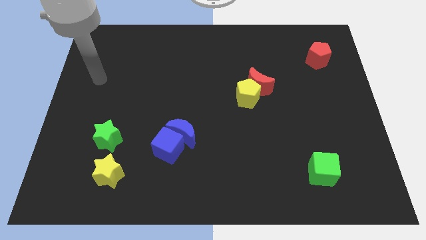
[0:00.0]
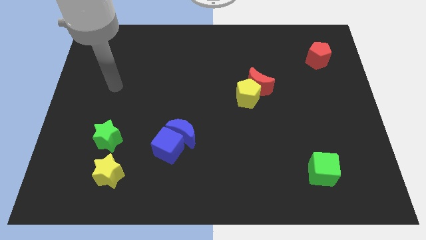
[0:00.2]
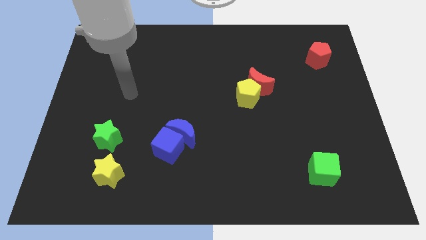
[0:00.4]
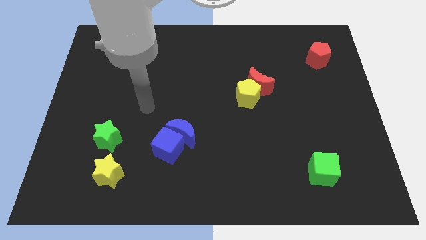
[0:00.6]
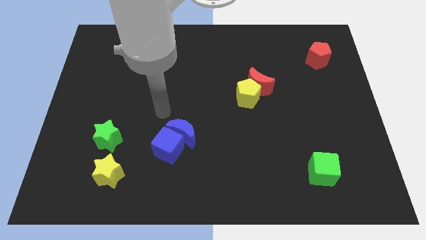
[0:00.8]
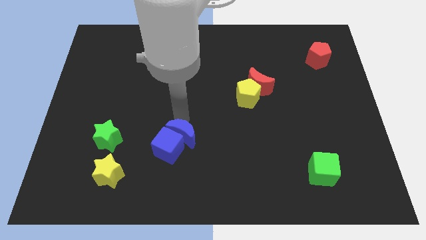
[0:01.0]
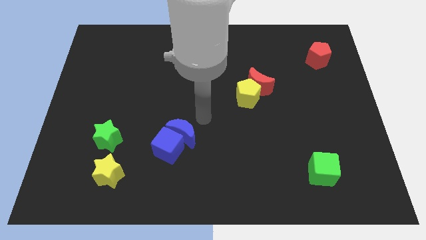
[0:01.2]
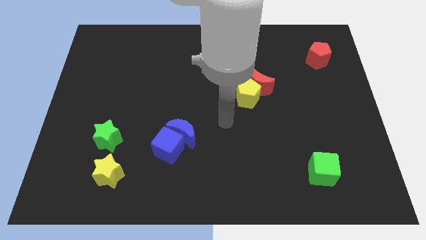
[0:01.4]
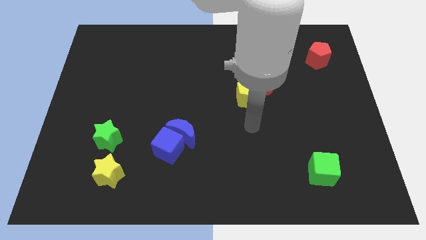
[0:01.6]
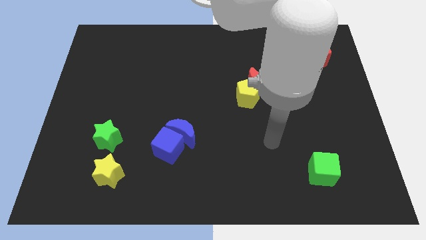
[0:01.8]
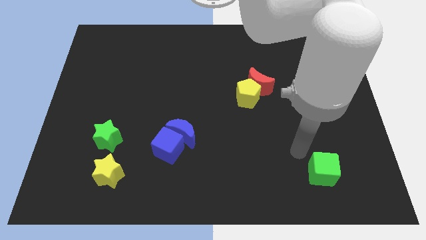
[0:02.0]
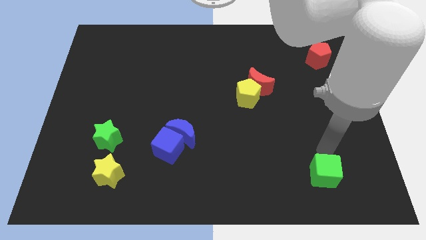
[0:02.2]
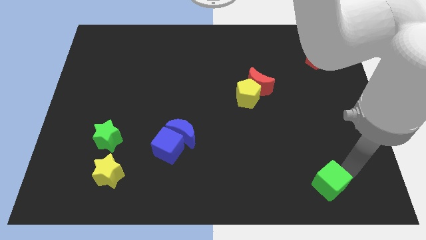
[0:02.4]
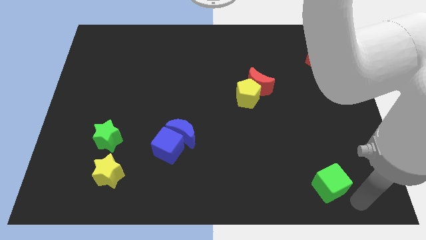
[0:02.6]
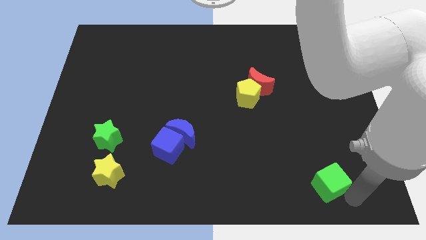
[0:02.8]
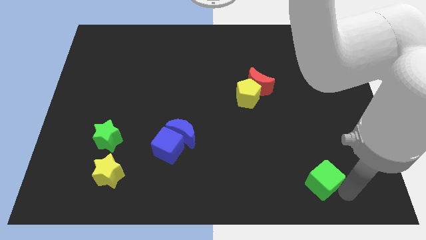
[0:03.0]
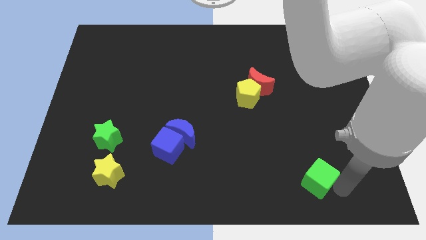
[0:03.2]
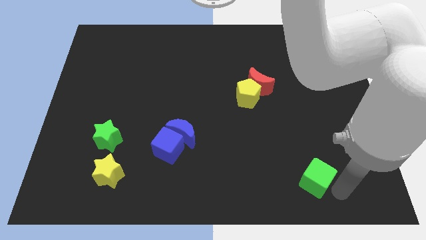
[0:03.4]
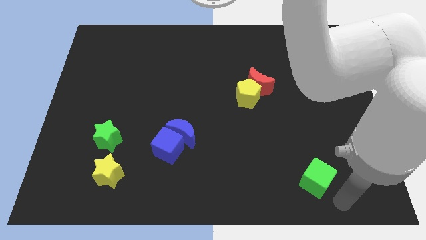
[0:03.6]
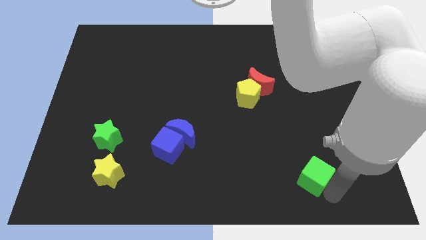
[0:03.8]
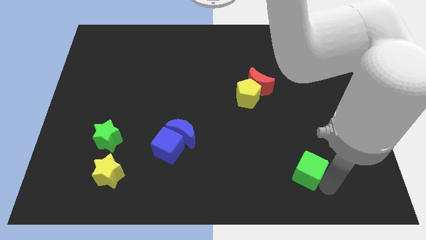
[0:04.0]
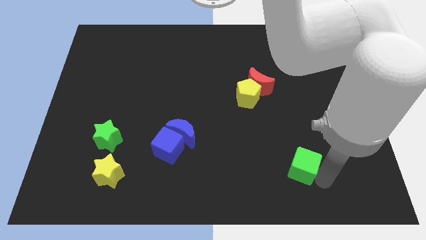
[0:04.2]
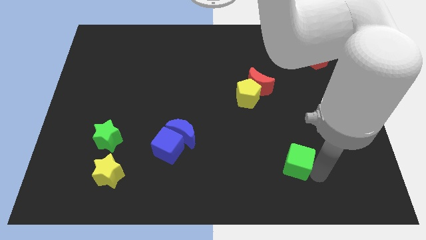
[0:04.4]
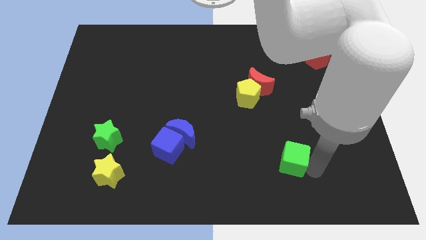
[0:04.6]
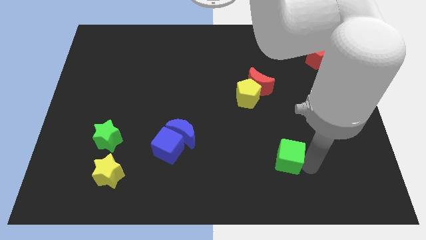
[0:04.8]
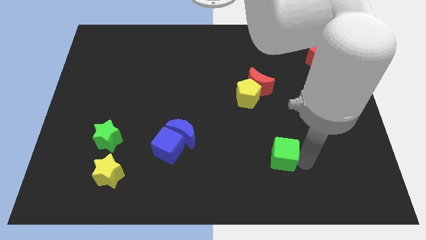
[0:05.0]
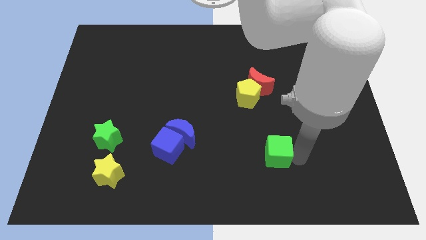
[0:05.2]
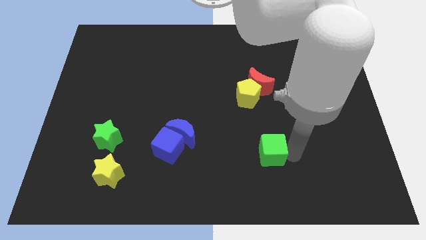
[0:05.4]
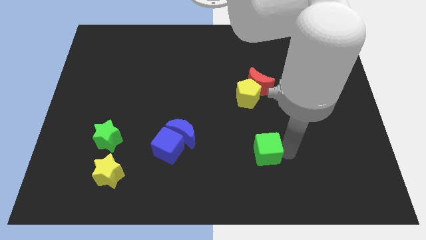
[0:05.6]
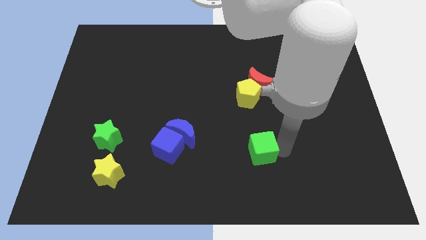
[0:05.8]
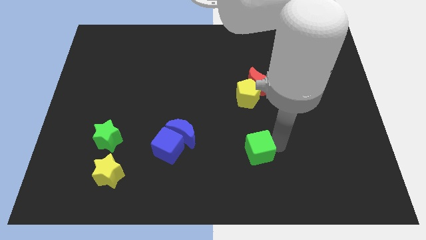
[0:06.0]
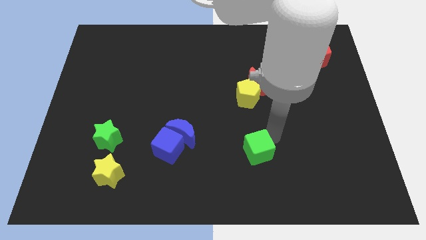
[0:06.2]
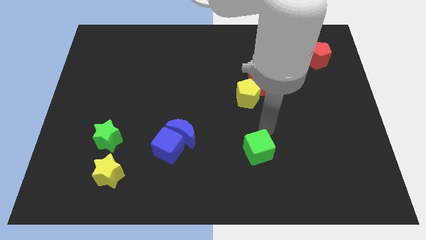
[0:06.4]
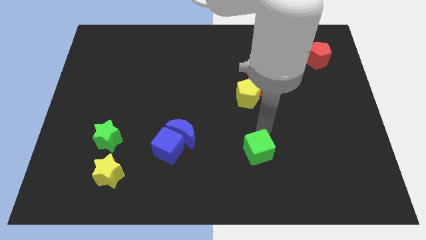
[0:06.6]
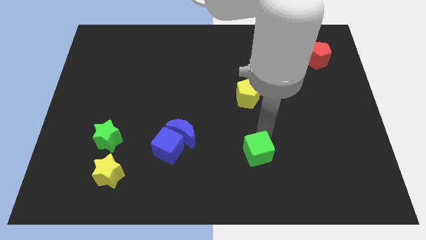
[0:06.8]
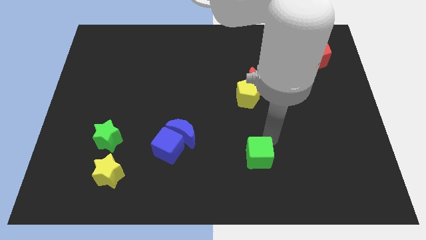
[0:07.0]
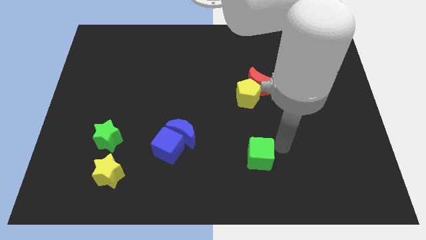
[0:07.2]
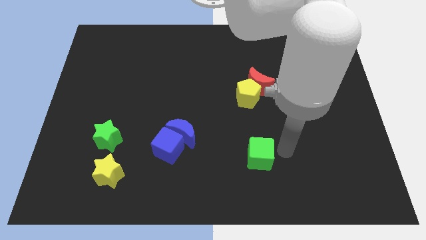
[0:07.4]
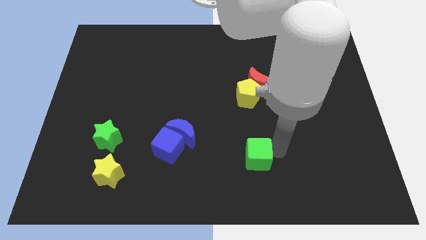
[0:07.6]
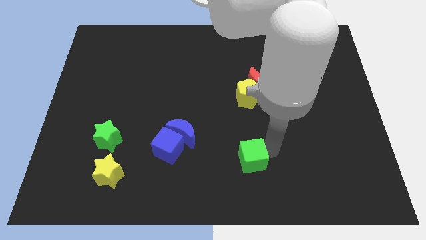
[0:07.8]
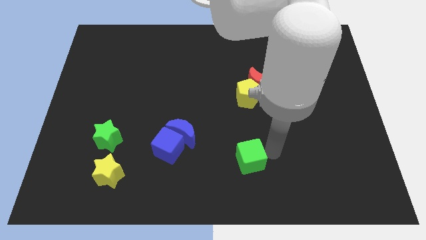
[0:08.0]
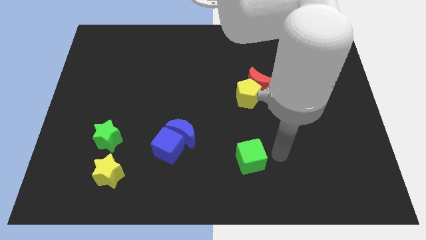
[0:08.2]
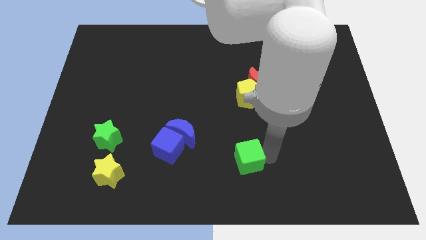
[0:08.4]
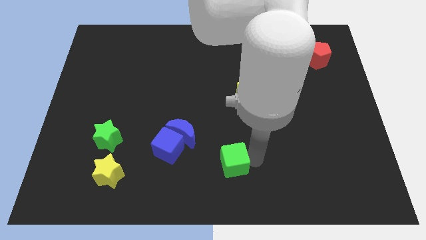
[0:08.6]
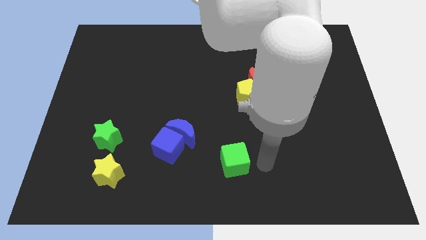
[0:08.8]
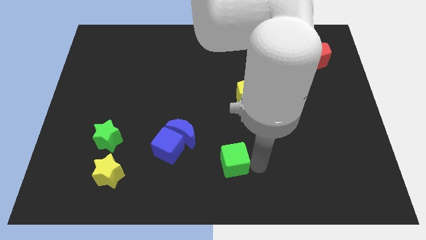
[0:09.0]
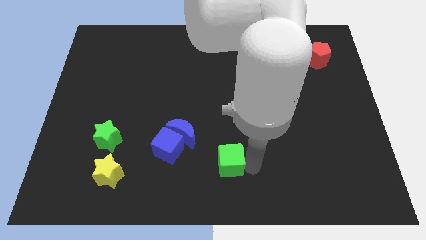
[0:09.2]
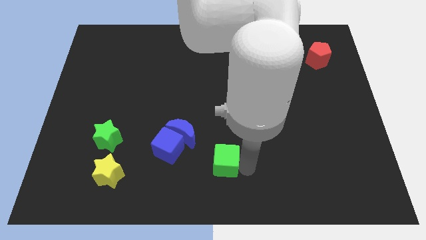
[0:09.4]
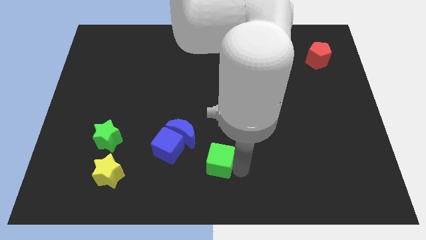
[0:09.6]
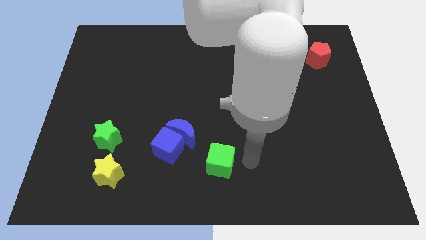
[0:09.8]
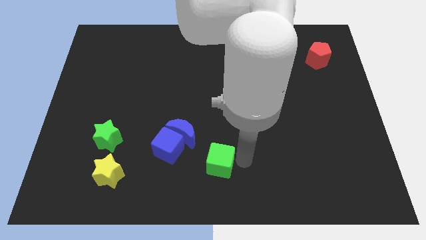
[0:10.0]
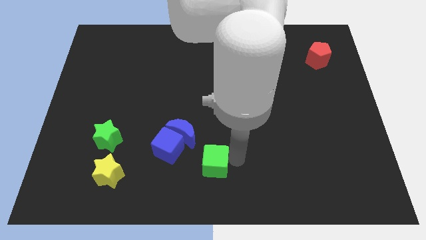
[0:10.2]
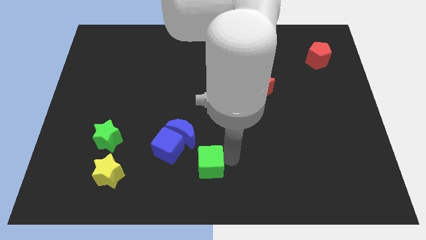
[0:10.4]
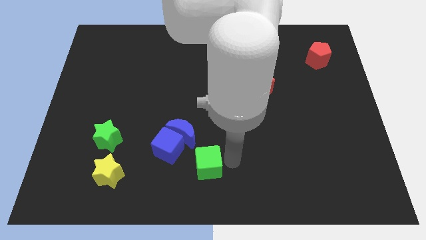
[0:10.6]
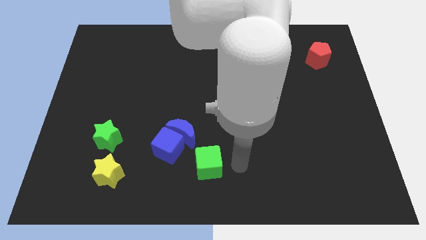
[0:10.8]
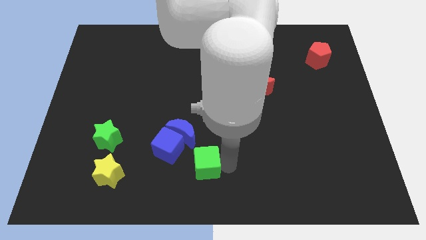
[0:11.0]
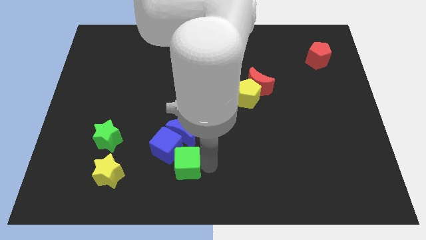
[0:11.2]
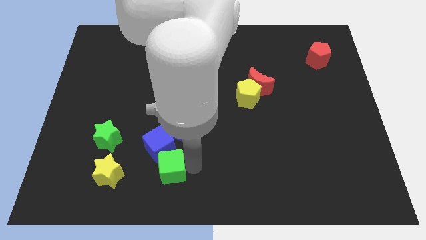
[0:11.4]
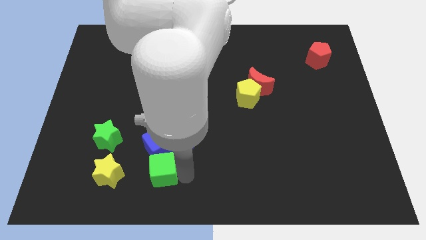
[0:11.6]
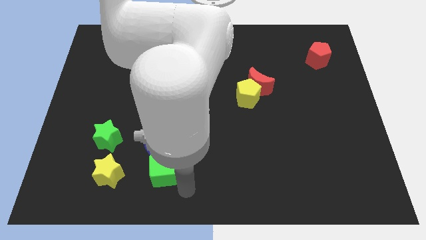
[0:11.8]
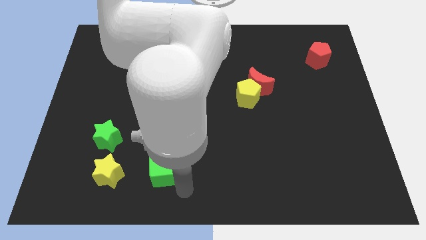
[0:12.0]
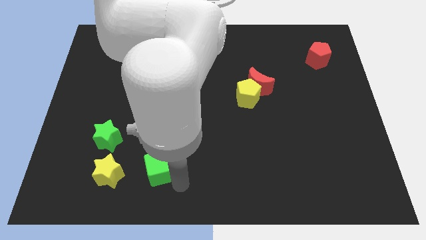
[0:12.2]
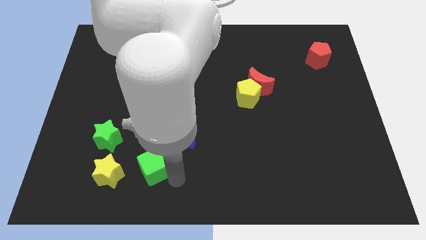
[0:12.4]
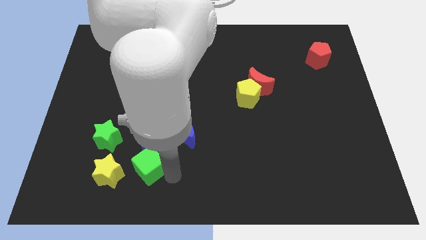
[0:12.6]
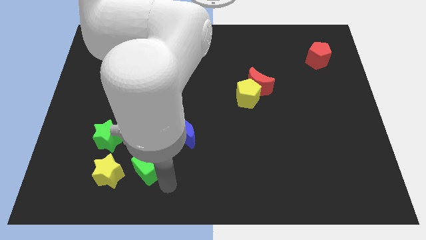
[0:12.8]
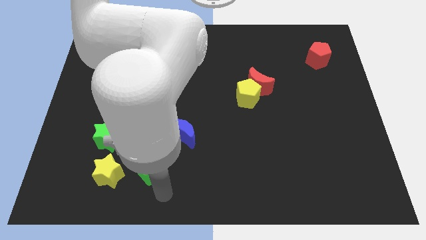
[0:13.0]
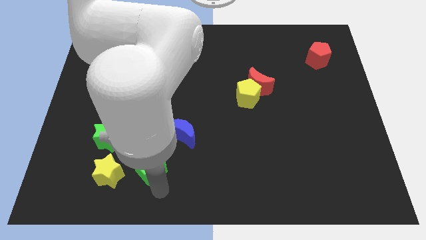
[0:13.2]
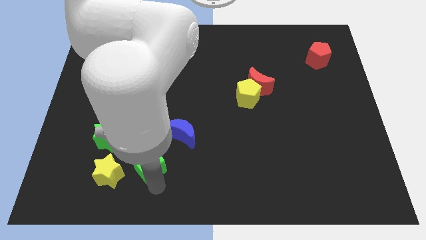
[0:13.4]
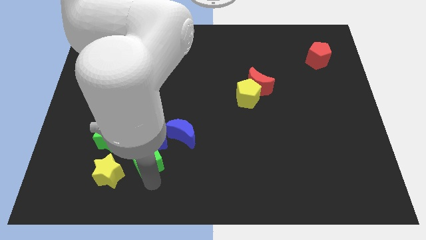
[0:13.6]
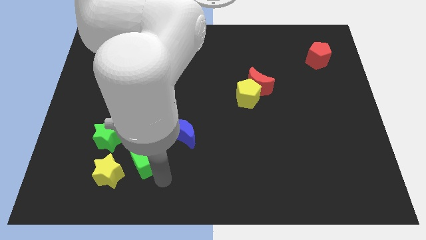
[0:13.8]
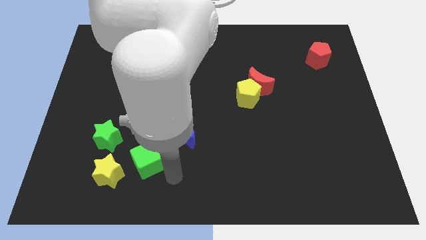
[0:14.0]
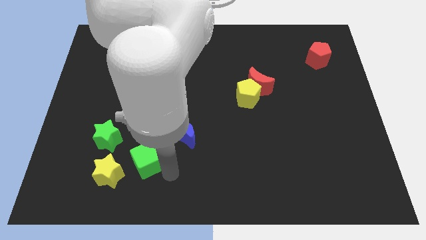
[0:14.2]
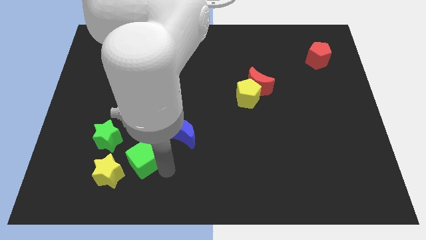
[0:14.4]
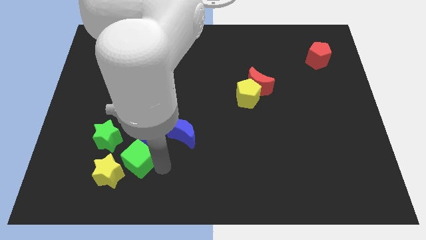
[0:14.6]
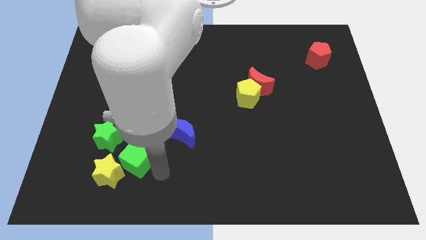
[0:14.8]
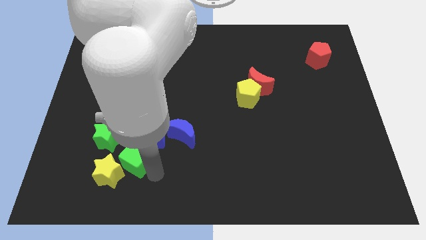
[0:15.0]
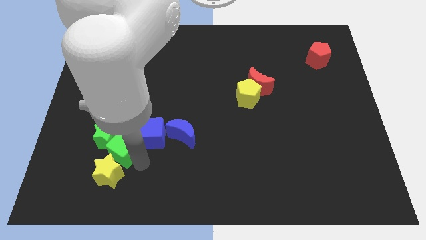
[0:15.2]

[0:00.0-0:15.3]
slide the green cube towards the green star
